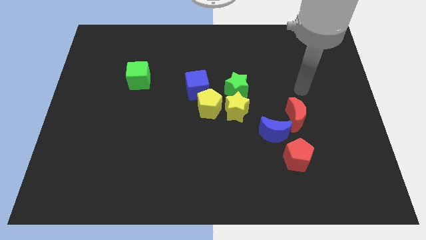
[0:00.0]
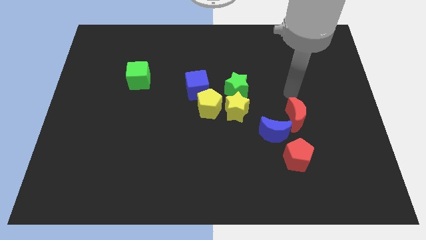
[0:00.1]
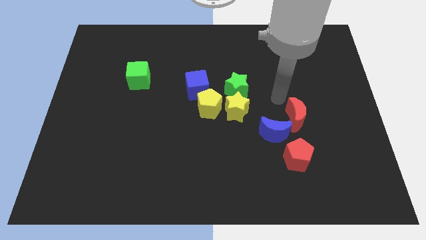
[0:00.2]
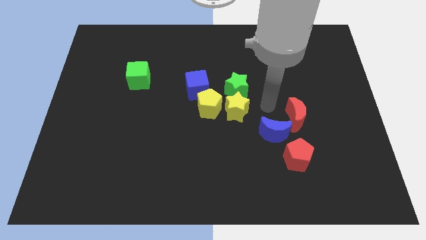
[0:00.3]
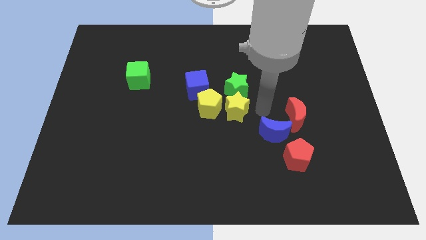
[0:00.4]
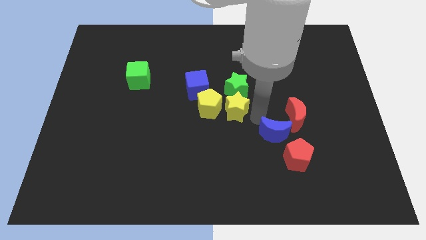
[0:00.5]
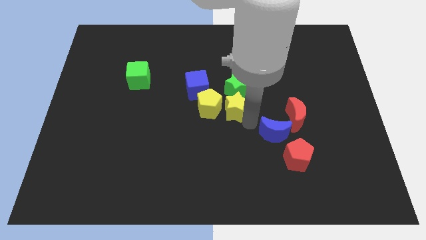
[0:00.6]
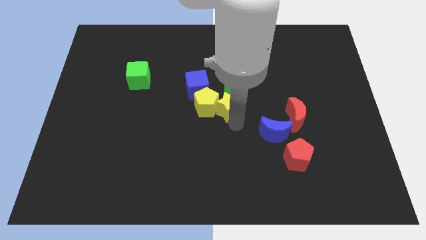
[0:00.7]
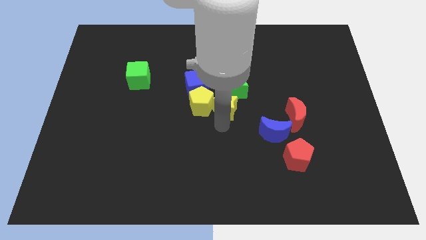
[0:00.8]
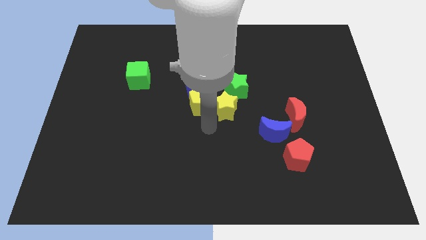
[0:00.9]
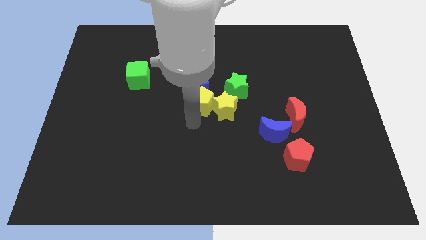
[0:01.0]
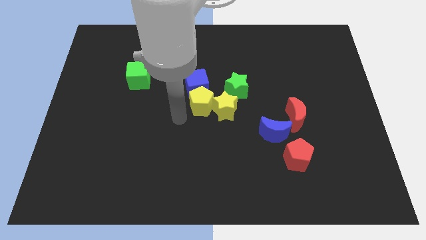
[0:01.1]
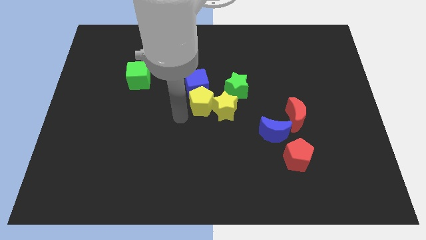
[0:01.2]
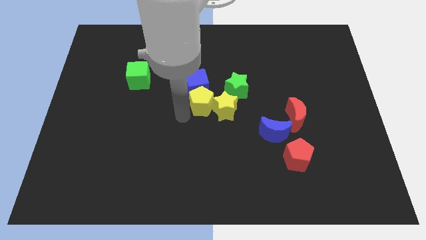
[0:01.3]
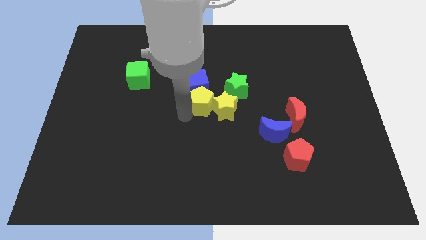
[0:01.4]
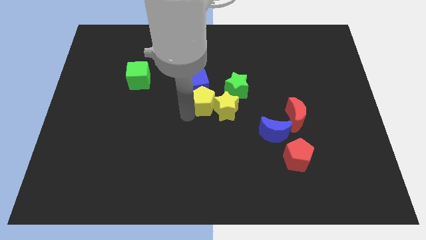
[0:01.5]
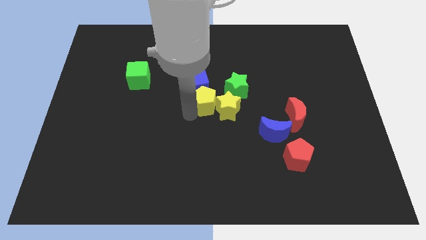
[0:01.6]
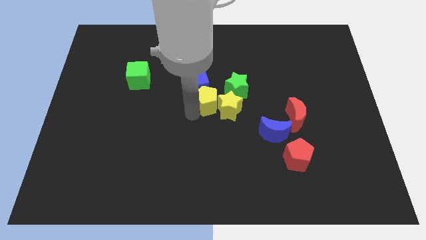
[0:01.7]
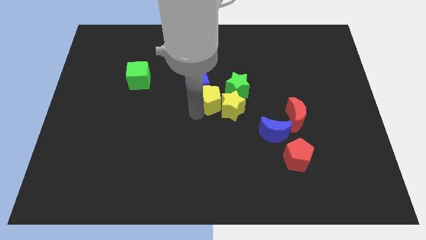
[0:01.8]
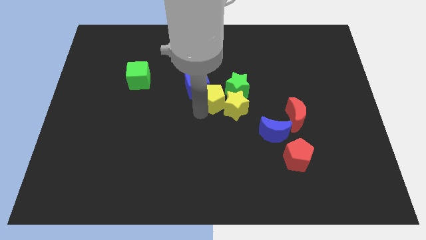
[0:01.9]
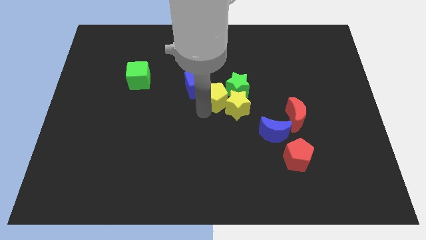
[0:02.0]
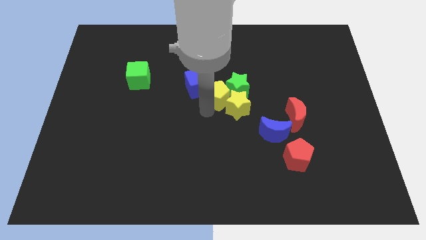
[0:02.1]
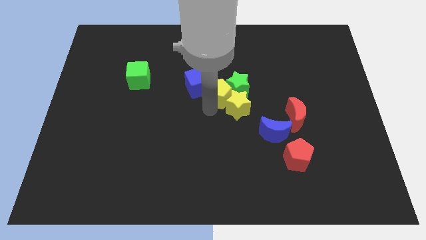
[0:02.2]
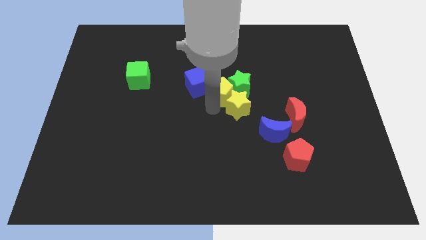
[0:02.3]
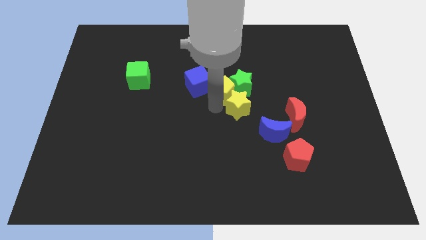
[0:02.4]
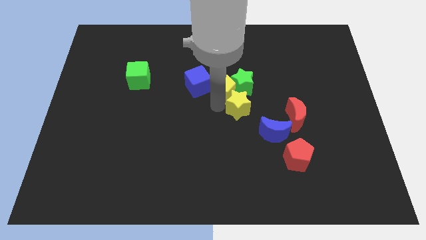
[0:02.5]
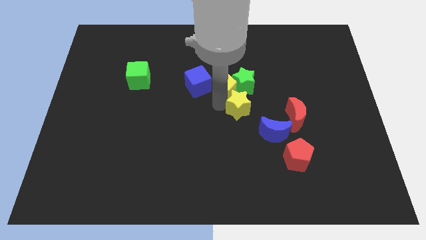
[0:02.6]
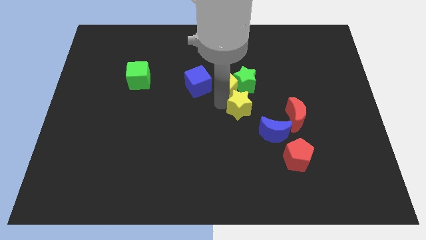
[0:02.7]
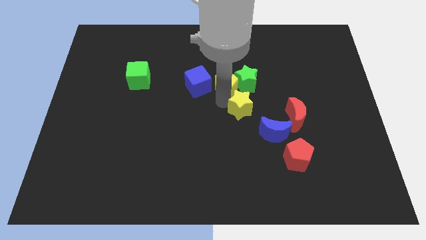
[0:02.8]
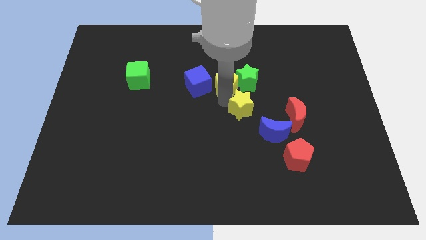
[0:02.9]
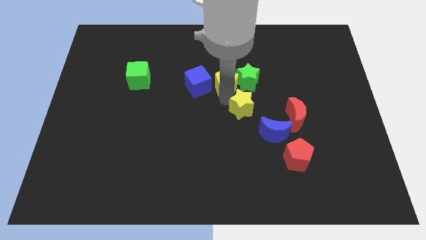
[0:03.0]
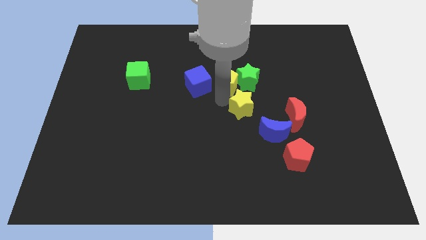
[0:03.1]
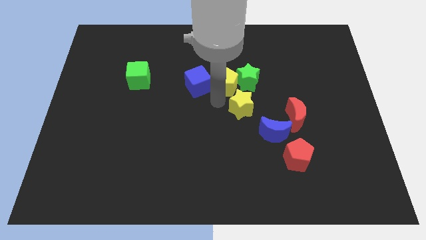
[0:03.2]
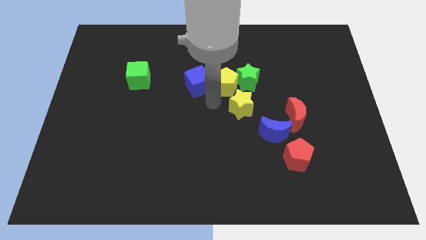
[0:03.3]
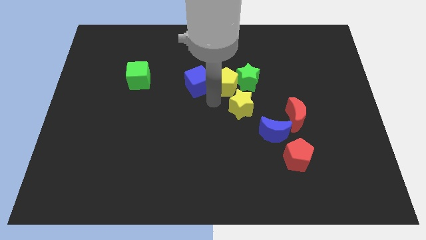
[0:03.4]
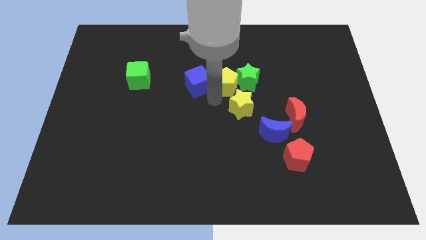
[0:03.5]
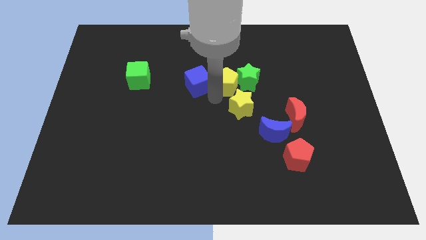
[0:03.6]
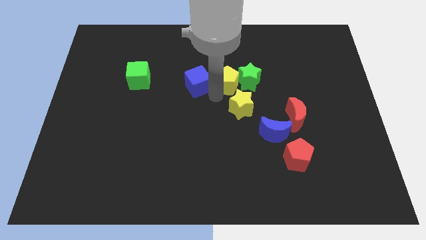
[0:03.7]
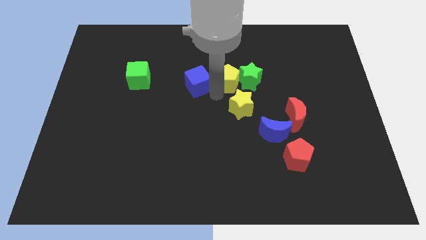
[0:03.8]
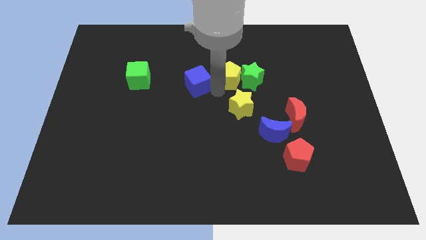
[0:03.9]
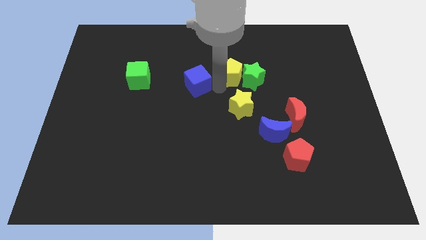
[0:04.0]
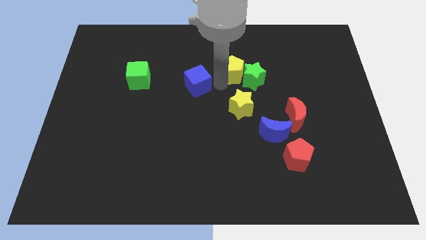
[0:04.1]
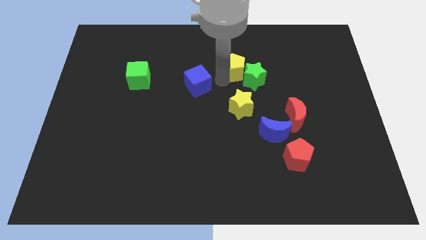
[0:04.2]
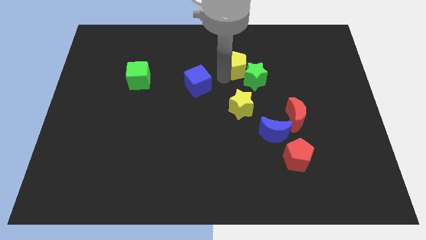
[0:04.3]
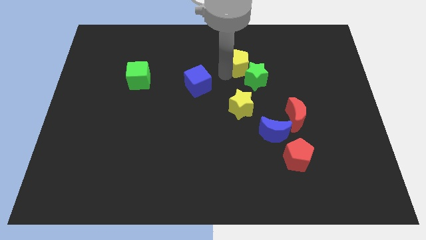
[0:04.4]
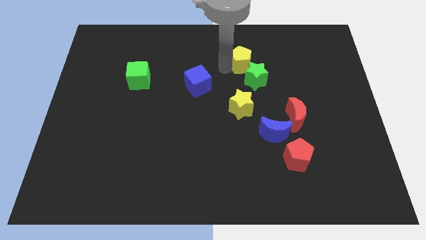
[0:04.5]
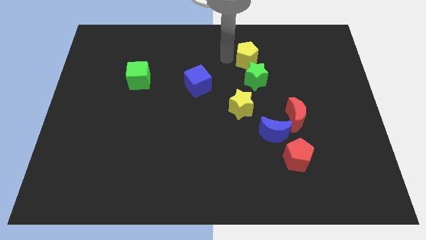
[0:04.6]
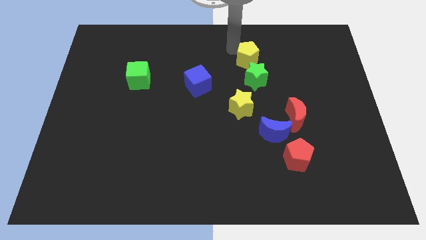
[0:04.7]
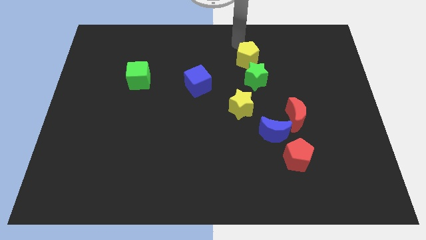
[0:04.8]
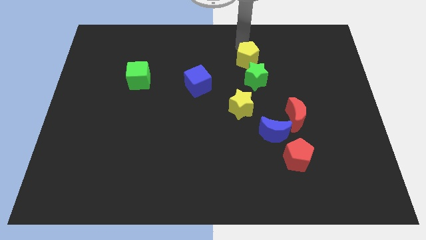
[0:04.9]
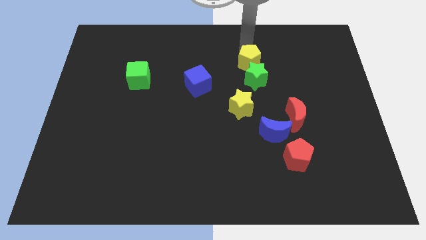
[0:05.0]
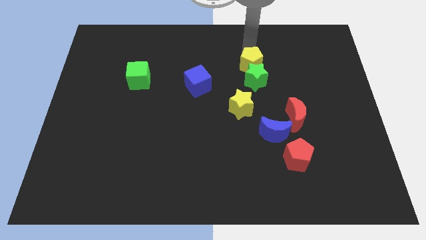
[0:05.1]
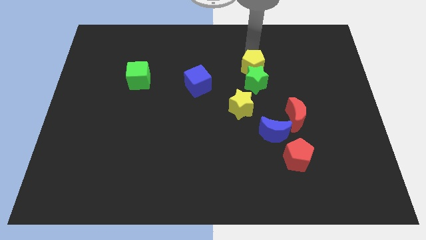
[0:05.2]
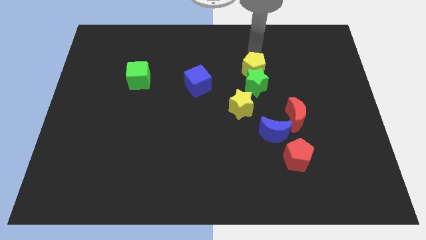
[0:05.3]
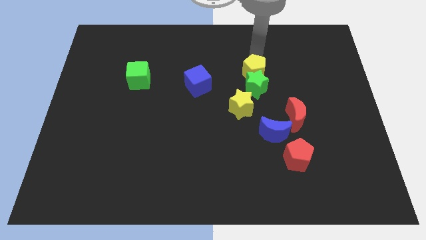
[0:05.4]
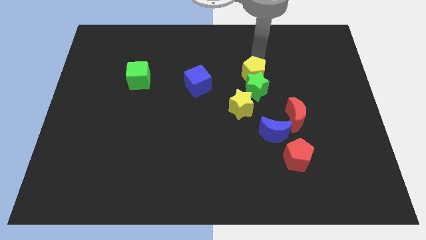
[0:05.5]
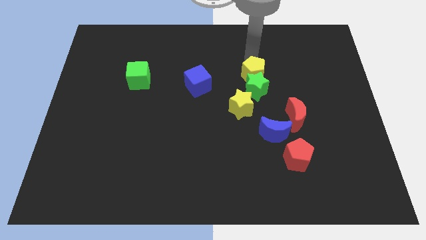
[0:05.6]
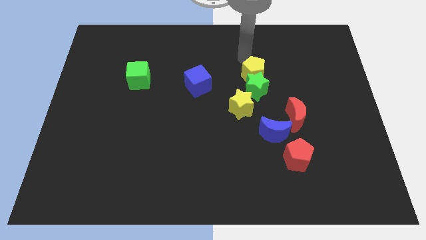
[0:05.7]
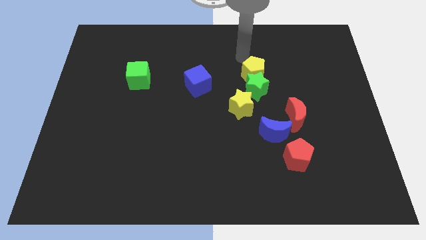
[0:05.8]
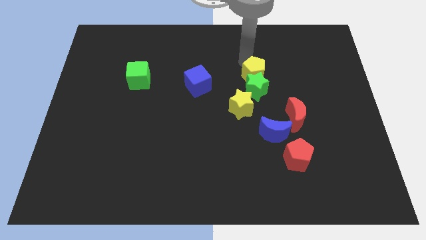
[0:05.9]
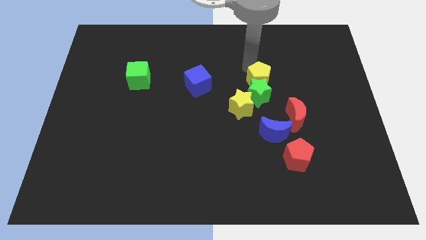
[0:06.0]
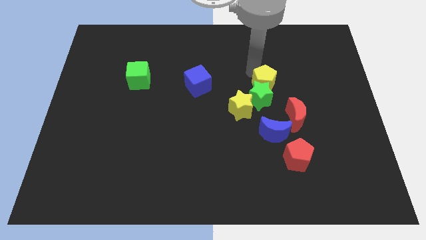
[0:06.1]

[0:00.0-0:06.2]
slide the yellow pentagon above the blue moon

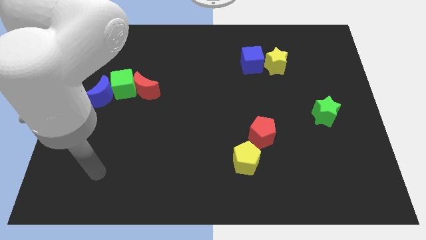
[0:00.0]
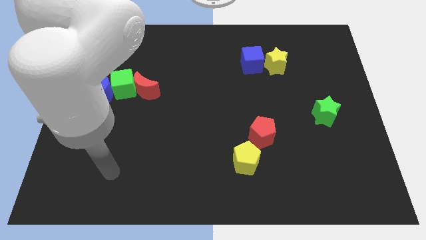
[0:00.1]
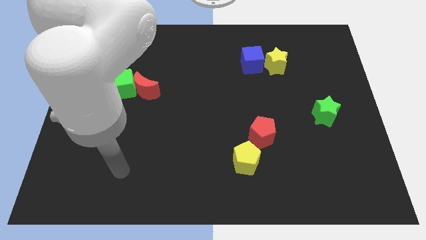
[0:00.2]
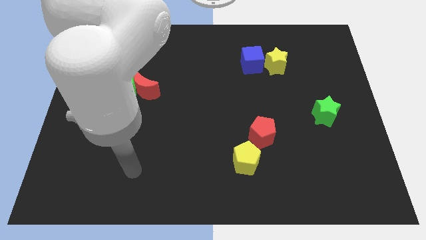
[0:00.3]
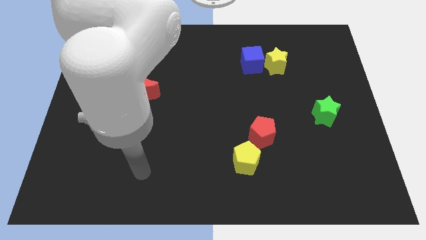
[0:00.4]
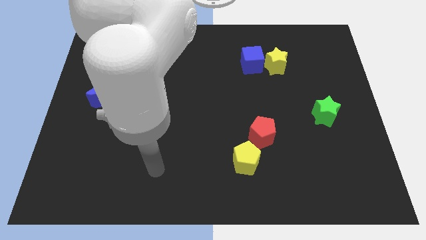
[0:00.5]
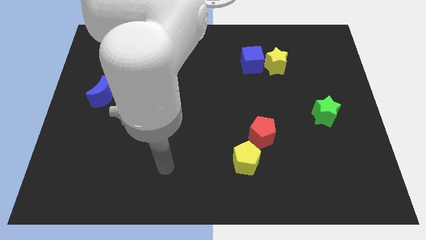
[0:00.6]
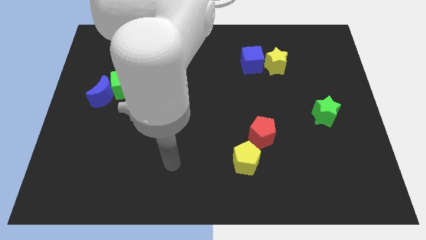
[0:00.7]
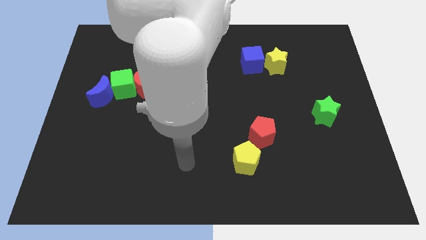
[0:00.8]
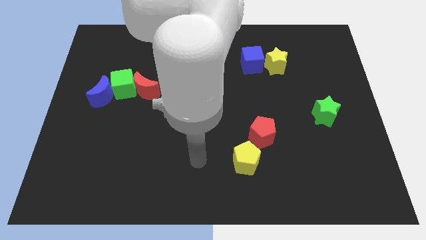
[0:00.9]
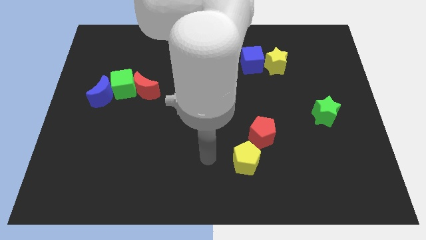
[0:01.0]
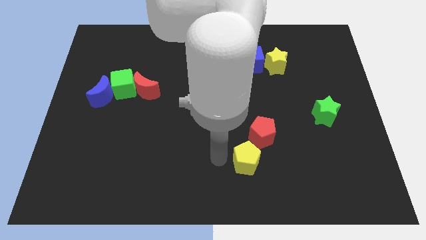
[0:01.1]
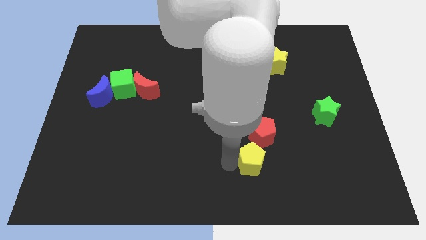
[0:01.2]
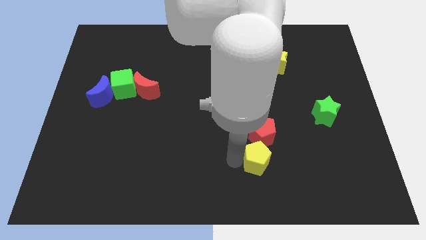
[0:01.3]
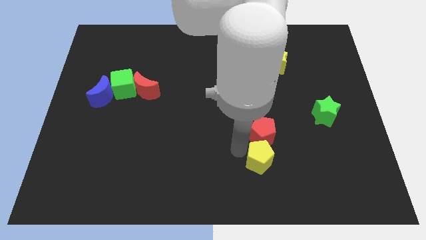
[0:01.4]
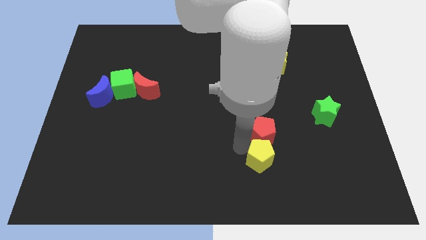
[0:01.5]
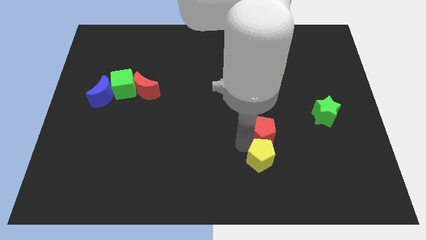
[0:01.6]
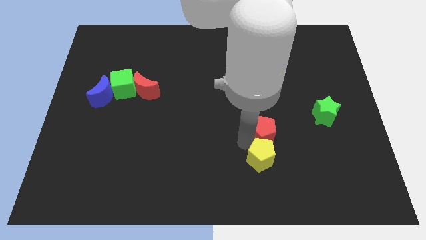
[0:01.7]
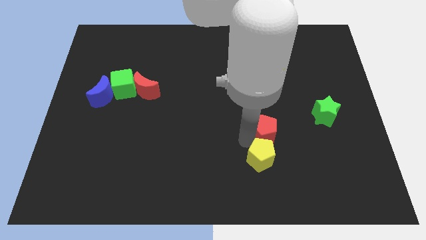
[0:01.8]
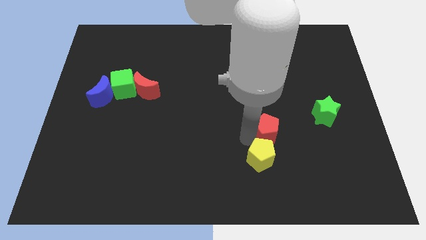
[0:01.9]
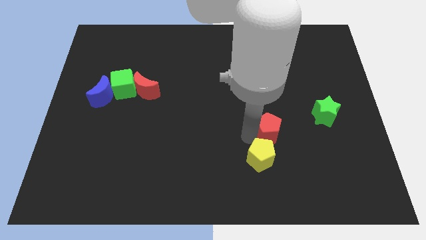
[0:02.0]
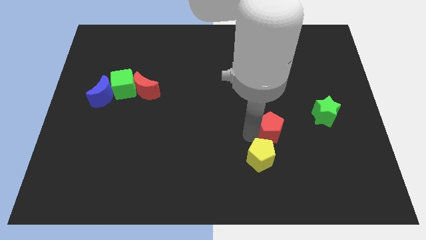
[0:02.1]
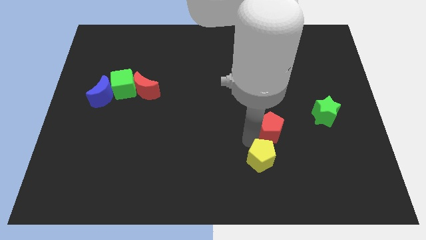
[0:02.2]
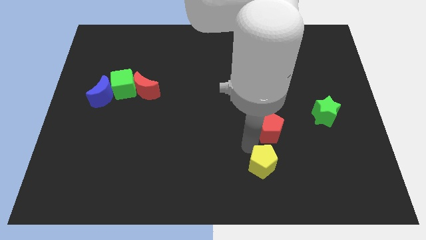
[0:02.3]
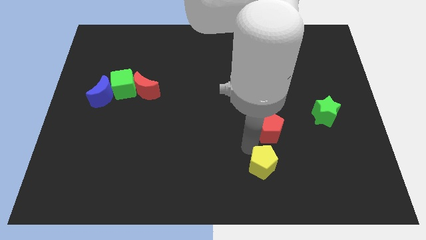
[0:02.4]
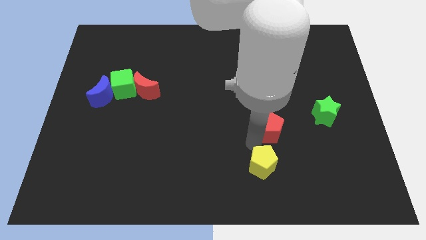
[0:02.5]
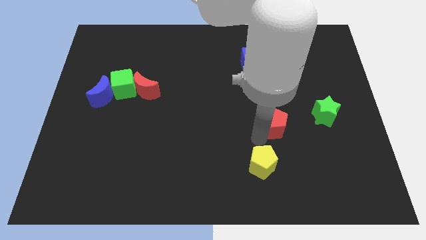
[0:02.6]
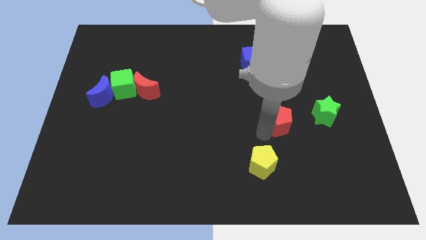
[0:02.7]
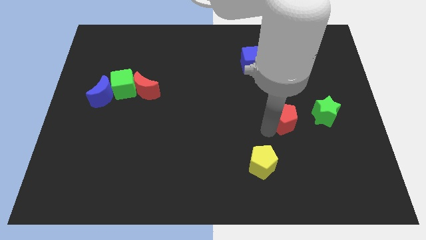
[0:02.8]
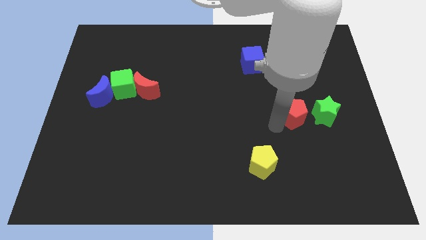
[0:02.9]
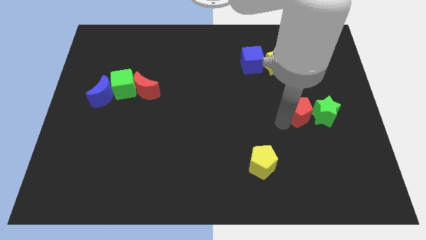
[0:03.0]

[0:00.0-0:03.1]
push the red pentagon diagonally up and to the left of the green star
